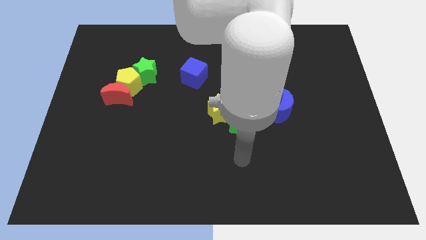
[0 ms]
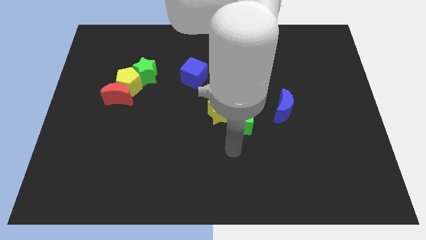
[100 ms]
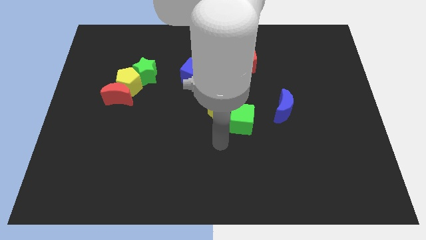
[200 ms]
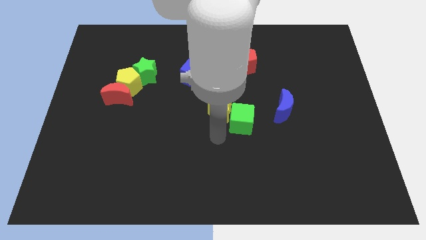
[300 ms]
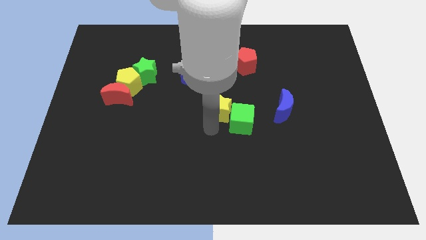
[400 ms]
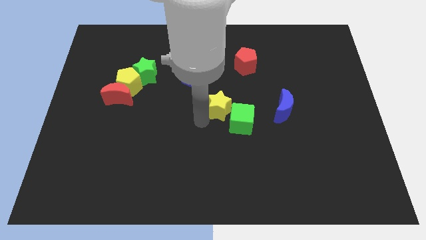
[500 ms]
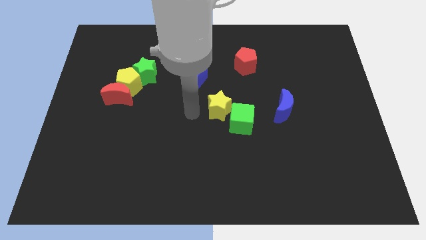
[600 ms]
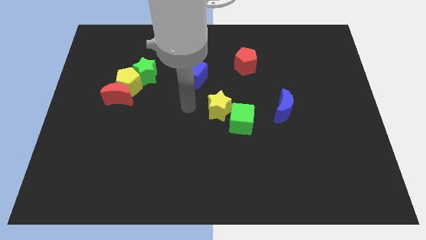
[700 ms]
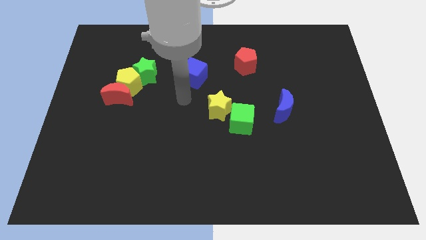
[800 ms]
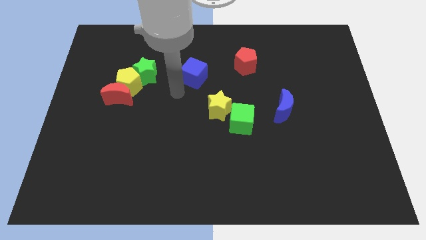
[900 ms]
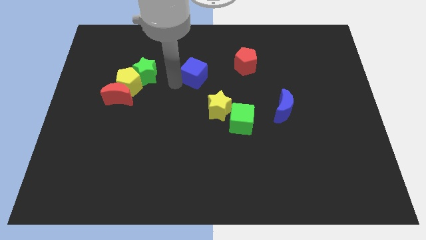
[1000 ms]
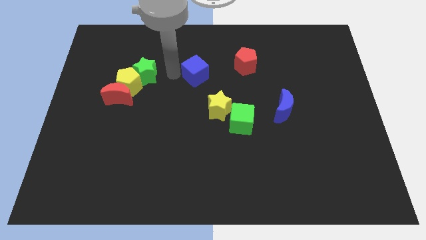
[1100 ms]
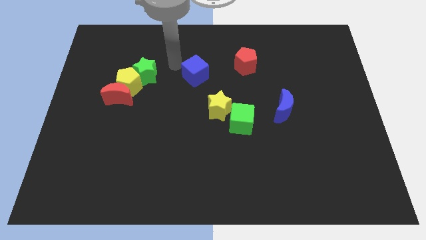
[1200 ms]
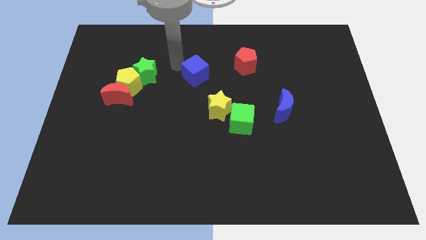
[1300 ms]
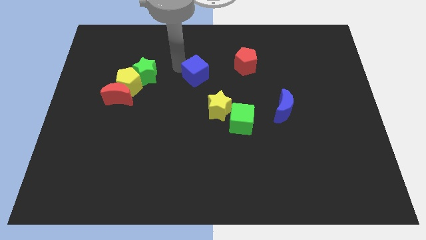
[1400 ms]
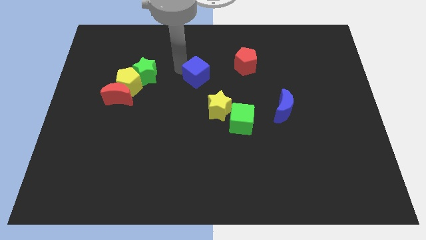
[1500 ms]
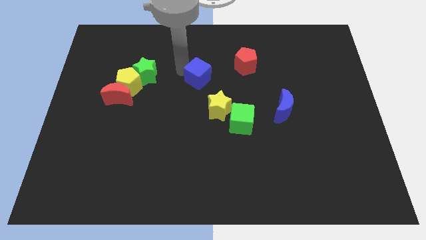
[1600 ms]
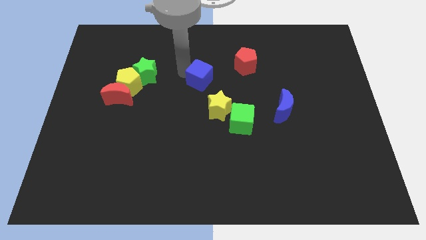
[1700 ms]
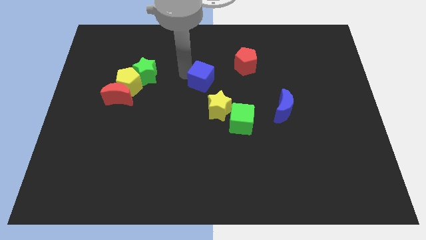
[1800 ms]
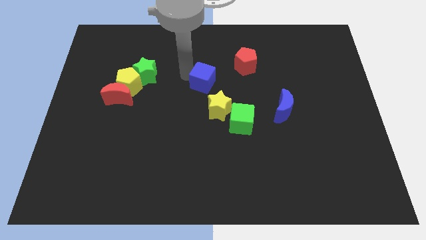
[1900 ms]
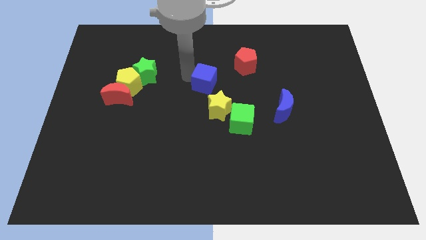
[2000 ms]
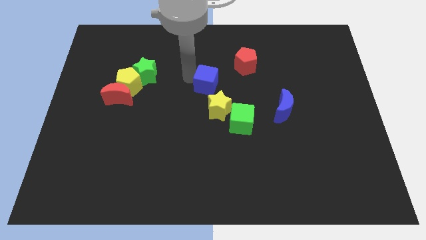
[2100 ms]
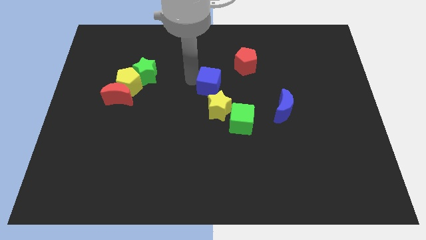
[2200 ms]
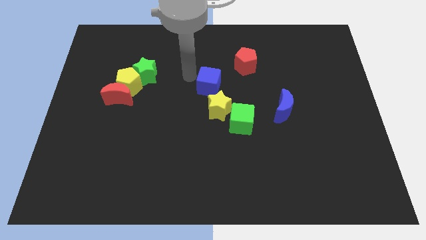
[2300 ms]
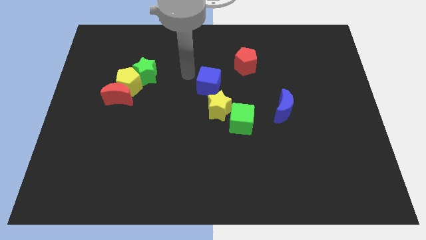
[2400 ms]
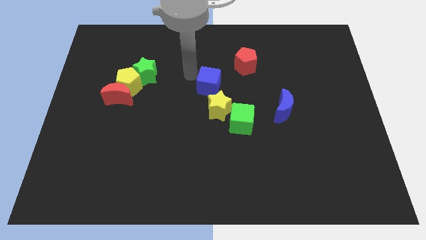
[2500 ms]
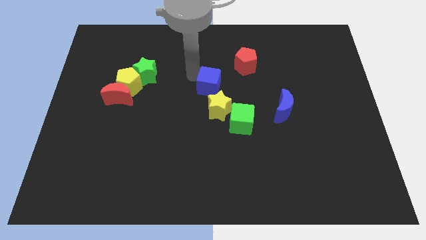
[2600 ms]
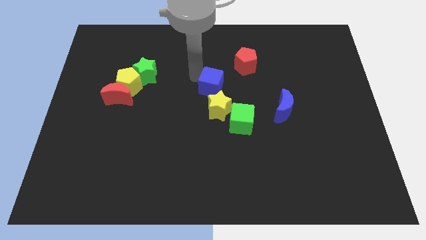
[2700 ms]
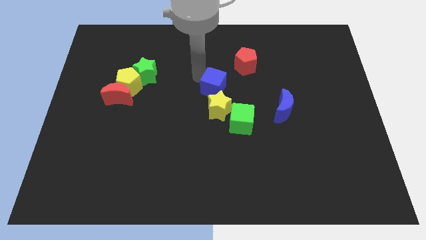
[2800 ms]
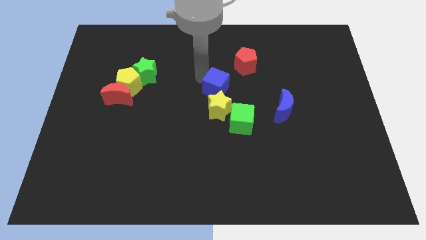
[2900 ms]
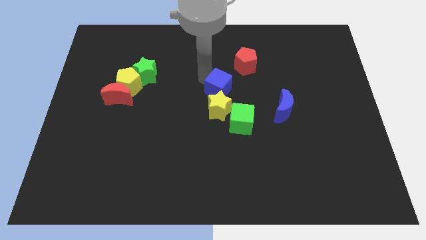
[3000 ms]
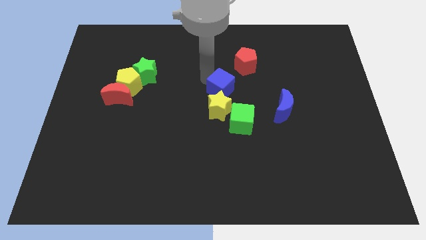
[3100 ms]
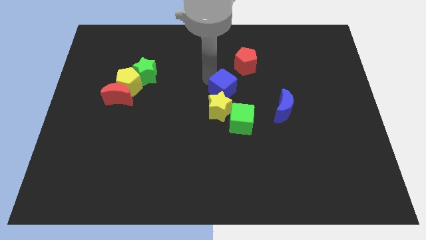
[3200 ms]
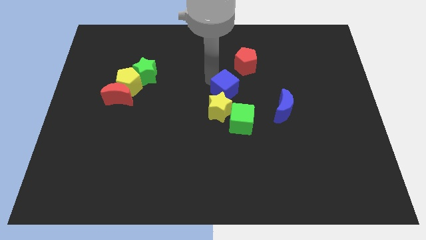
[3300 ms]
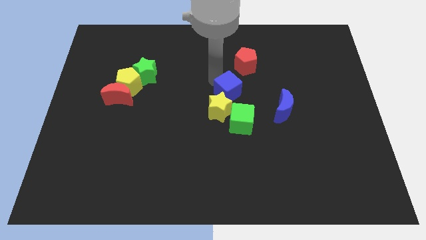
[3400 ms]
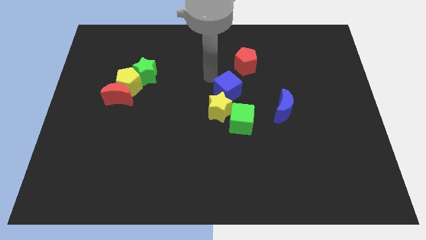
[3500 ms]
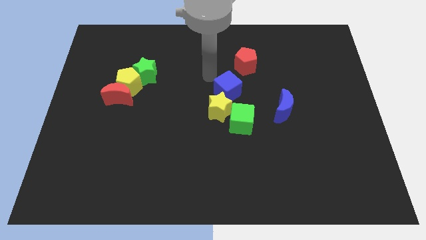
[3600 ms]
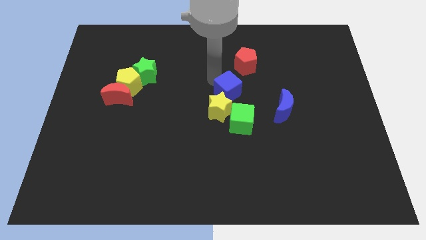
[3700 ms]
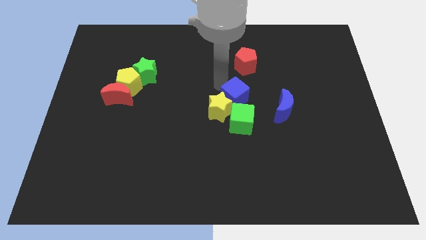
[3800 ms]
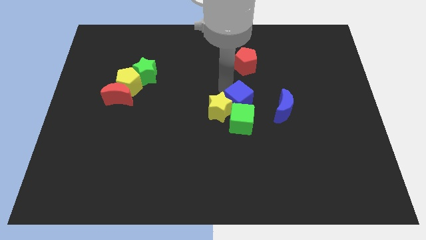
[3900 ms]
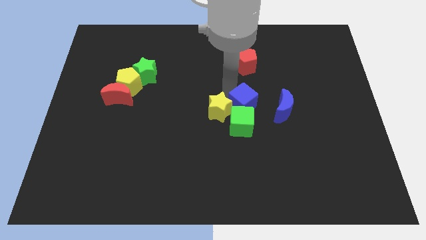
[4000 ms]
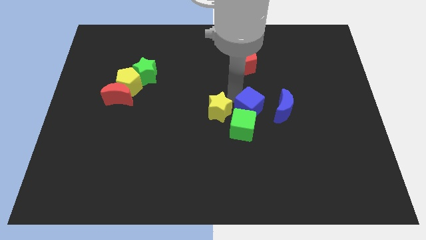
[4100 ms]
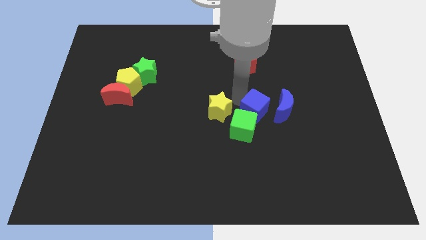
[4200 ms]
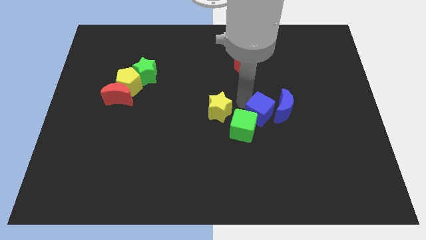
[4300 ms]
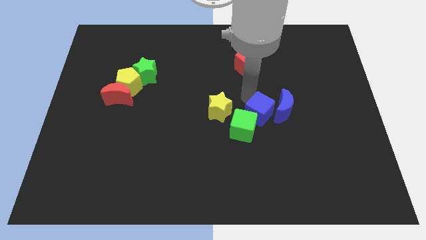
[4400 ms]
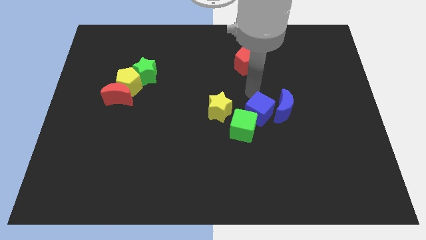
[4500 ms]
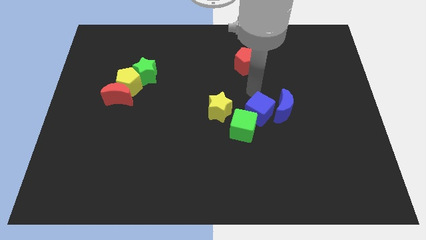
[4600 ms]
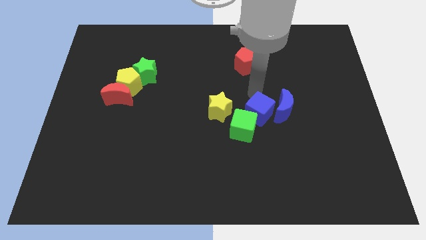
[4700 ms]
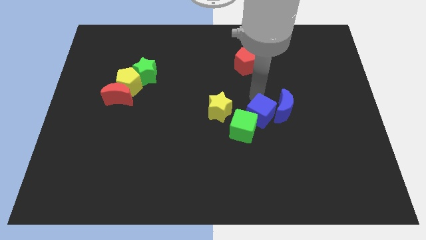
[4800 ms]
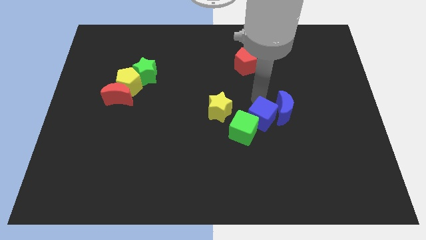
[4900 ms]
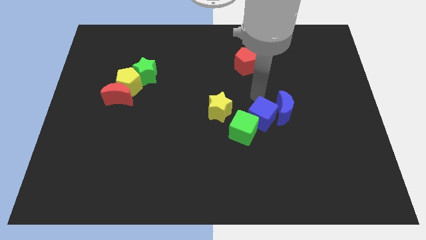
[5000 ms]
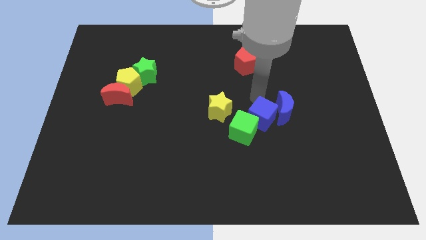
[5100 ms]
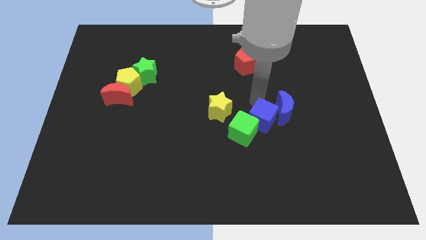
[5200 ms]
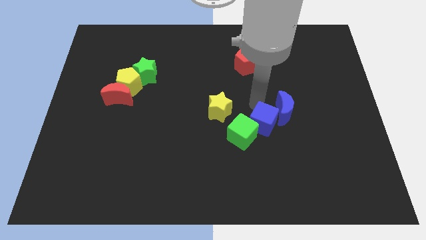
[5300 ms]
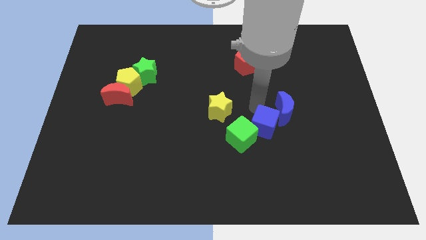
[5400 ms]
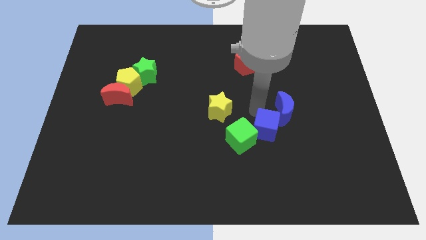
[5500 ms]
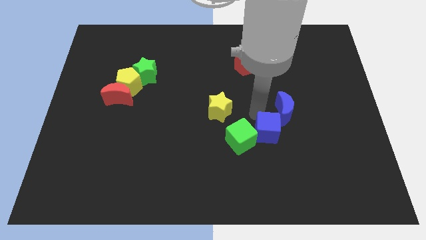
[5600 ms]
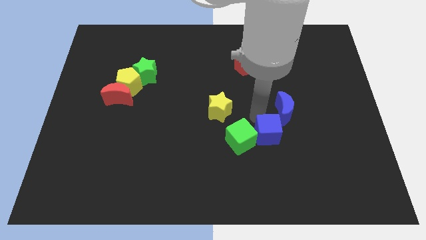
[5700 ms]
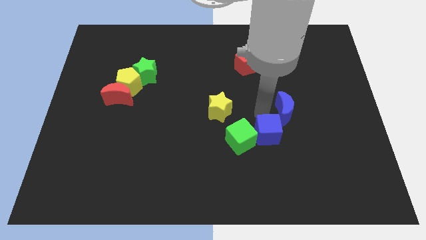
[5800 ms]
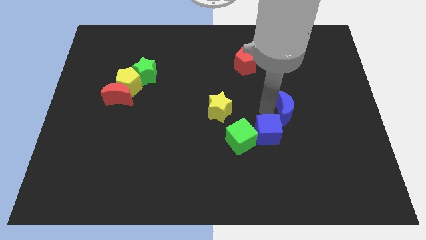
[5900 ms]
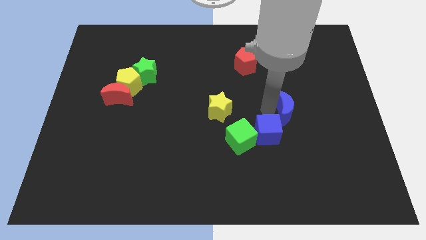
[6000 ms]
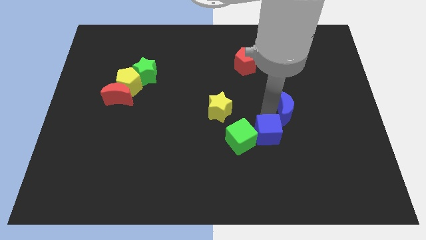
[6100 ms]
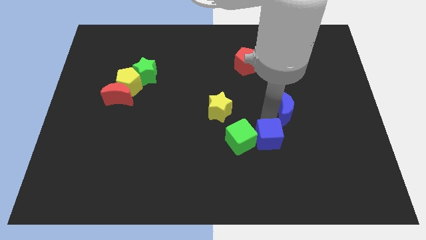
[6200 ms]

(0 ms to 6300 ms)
put the blue cube diagonally down and to the right of the green cube
